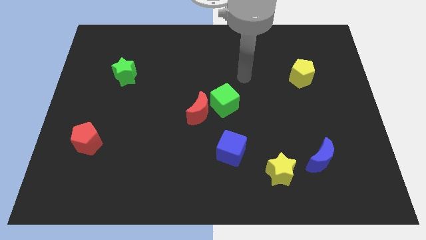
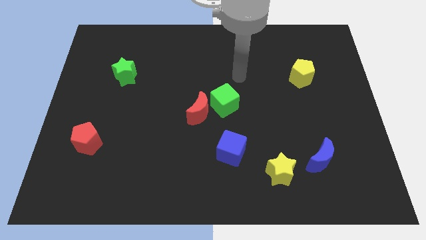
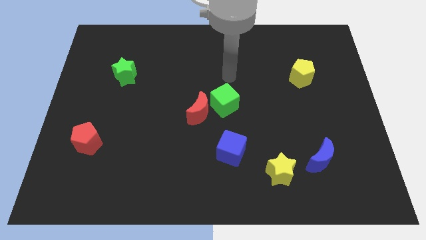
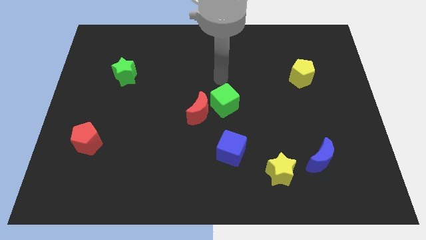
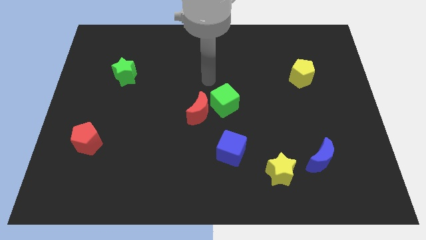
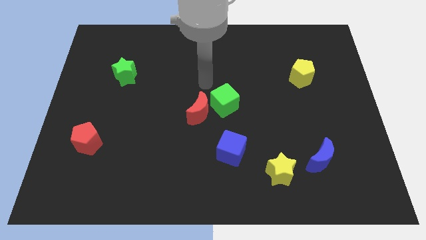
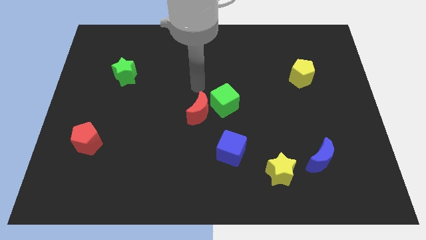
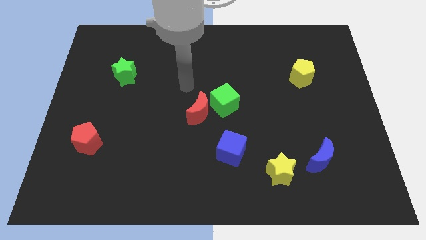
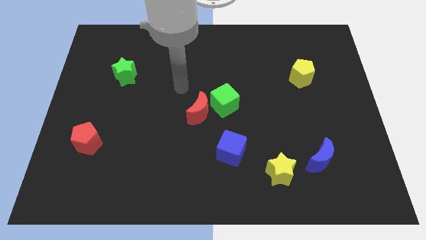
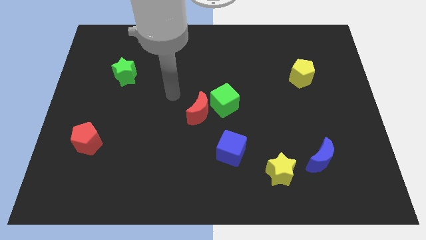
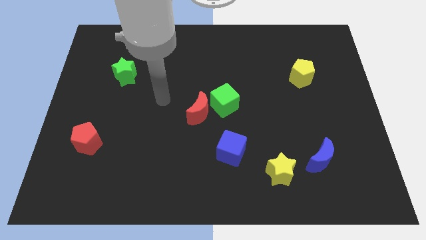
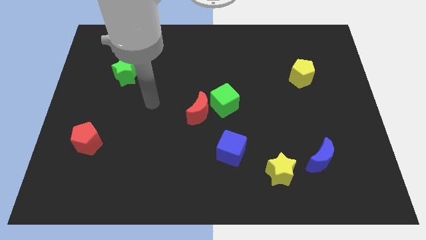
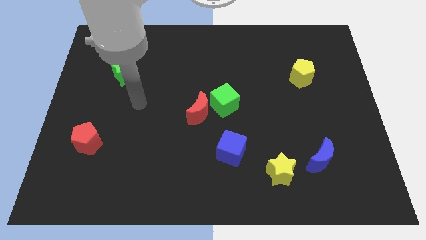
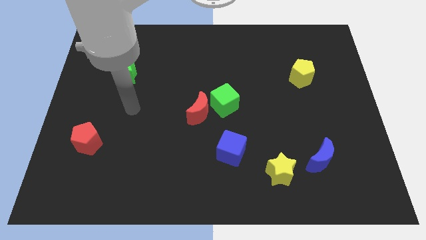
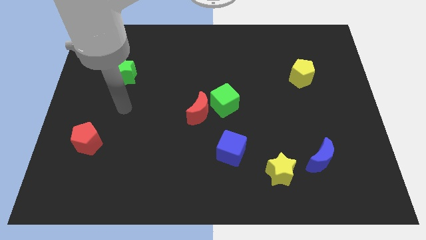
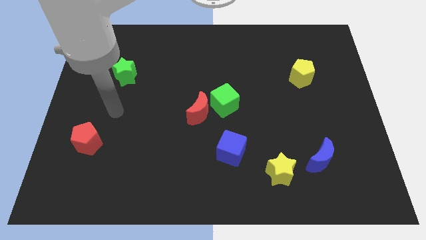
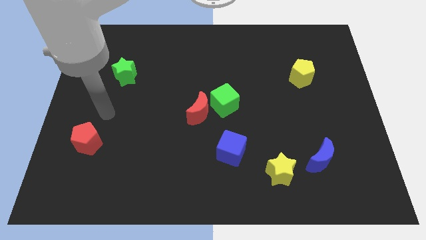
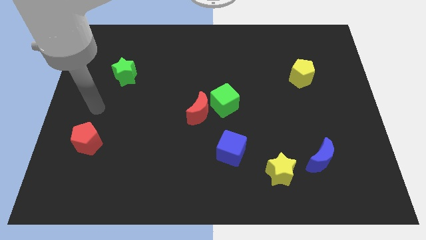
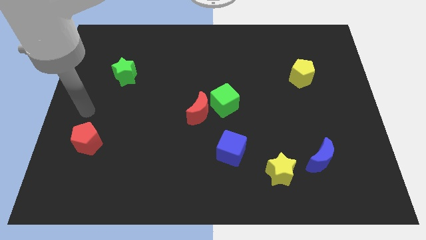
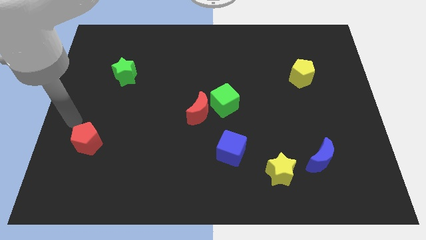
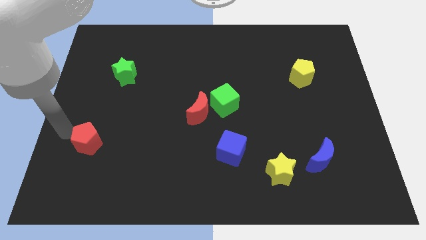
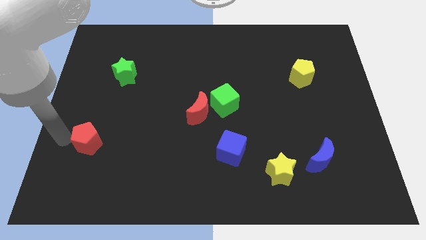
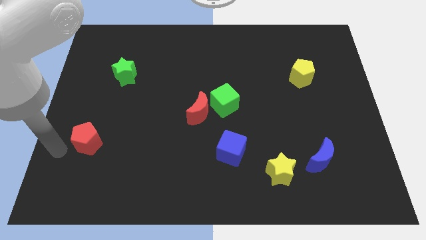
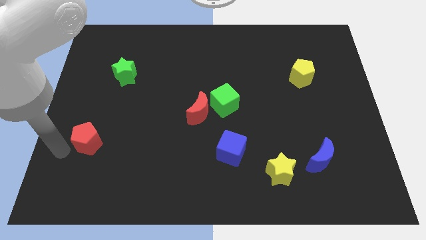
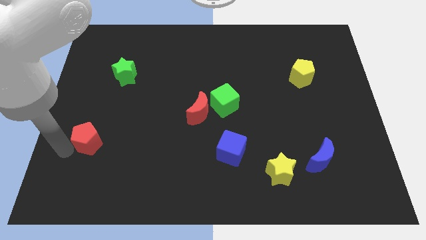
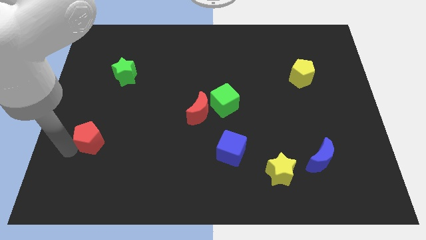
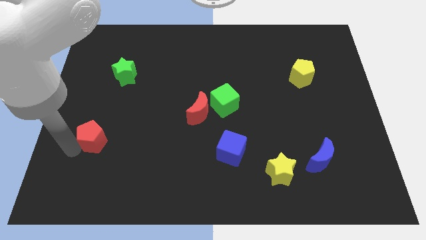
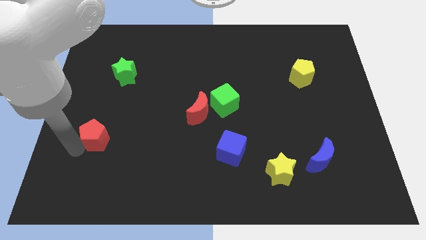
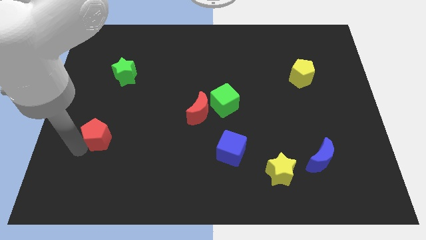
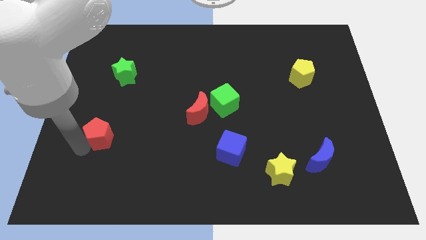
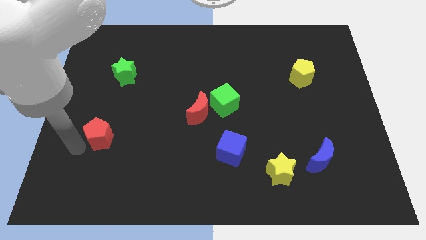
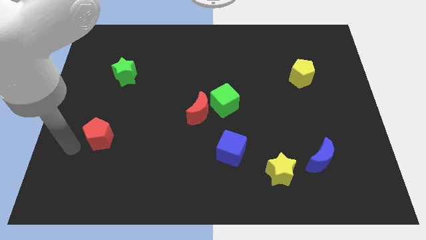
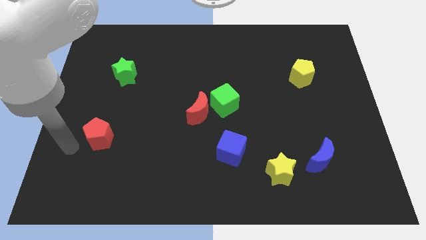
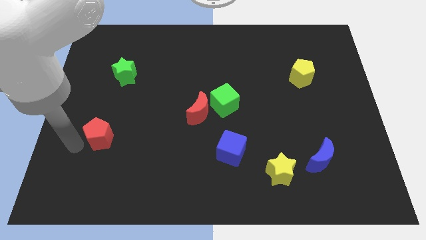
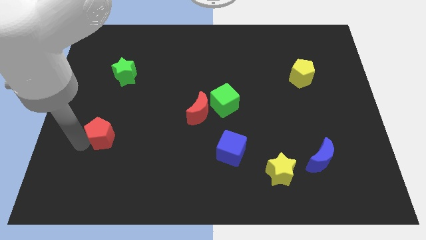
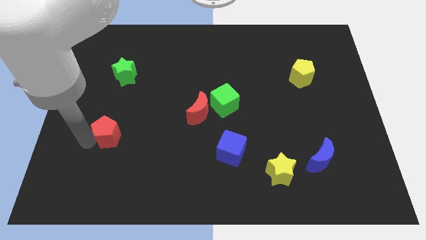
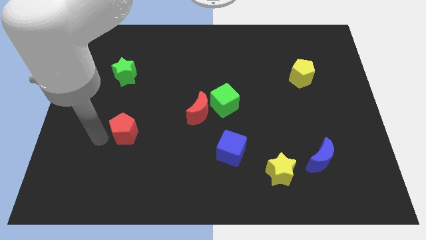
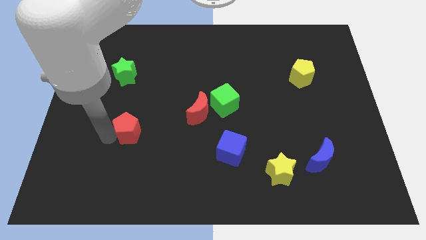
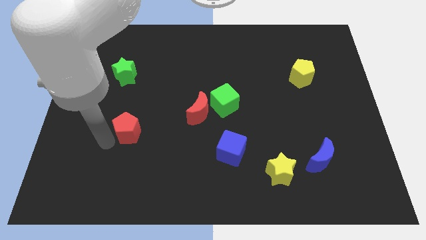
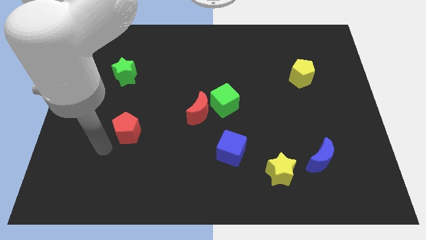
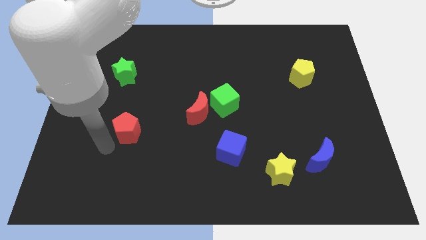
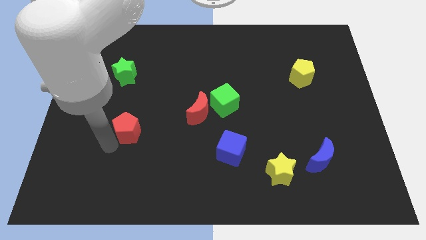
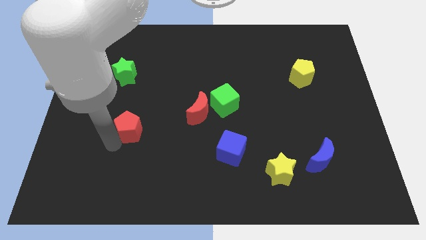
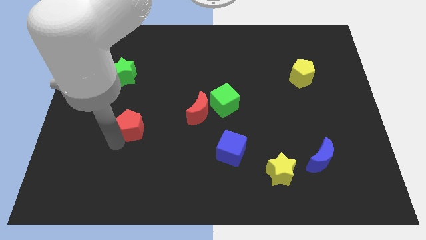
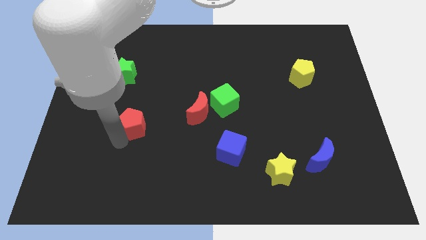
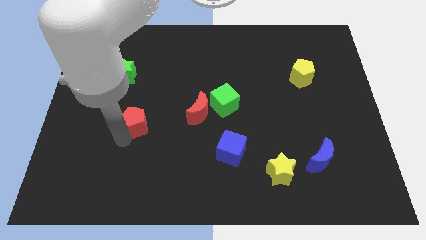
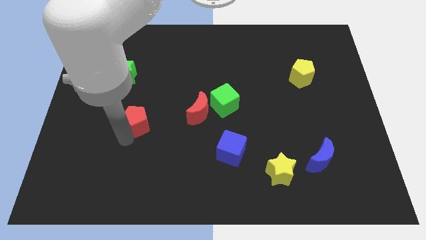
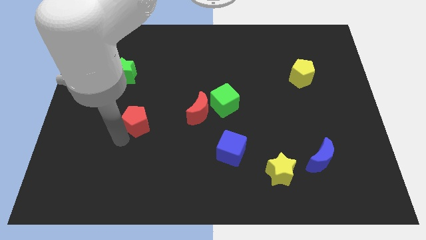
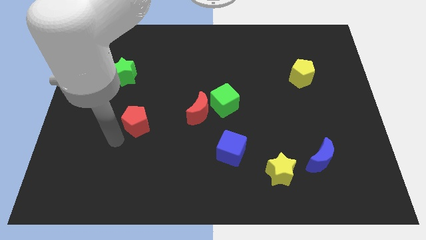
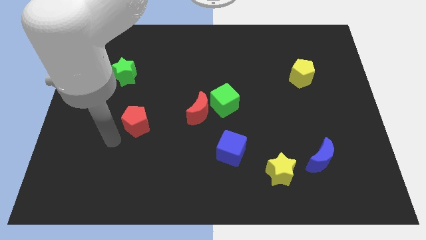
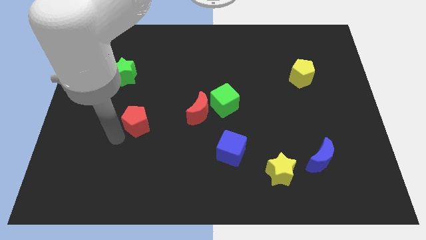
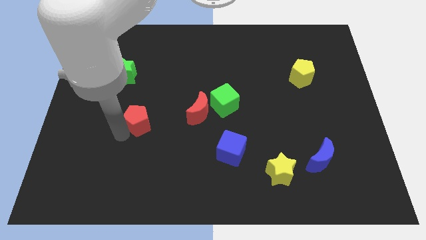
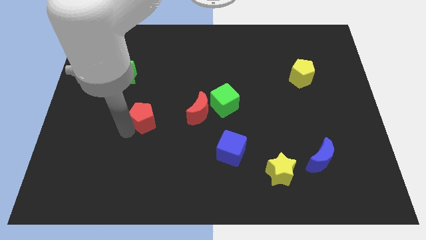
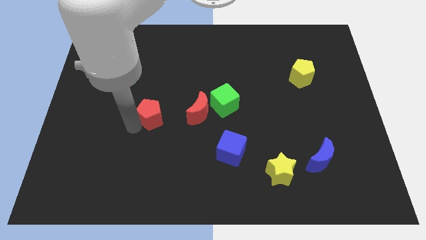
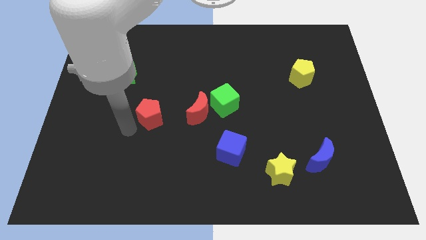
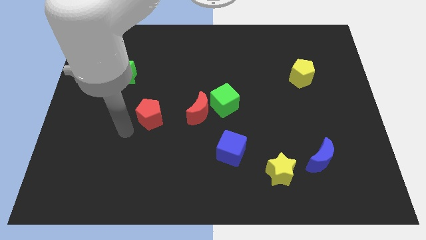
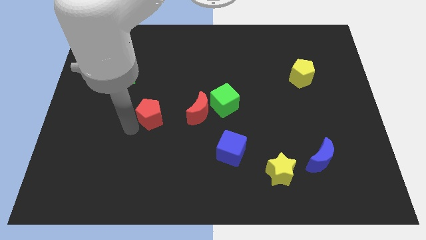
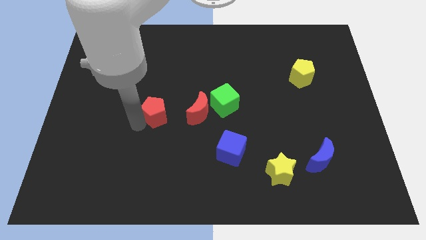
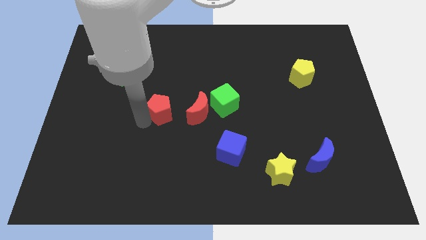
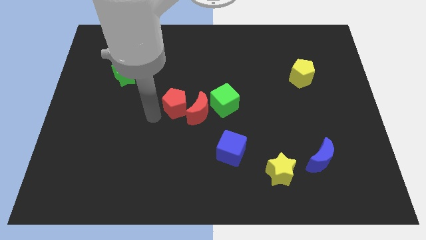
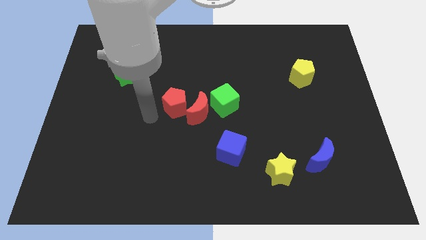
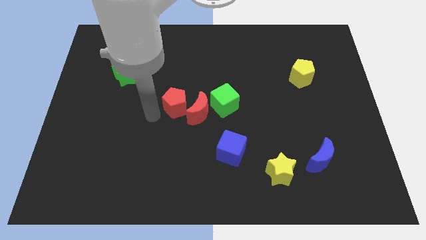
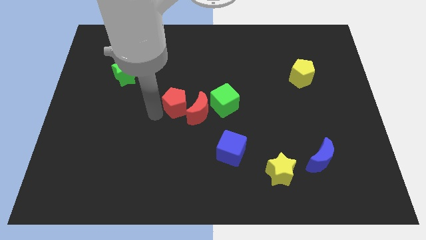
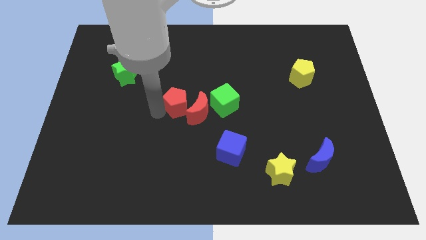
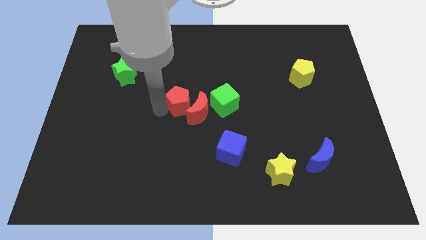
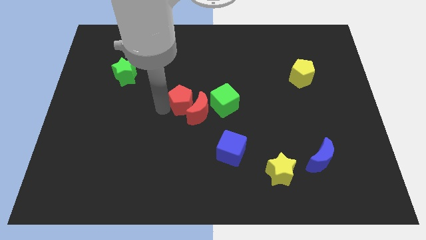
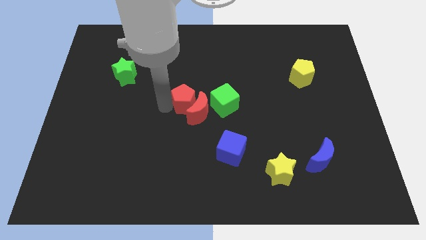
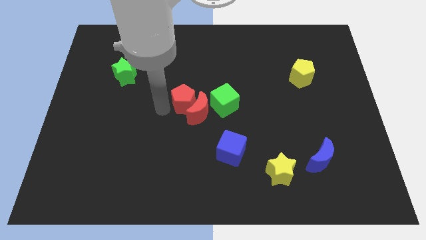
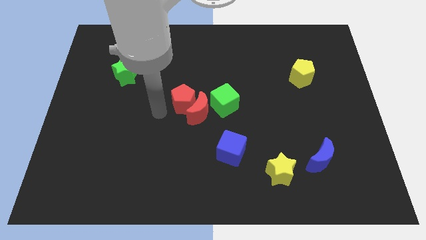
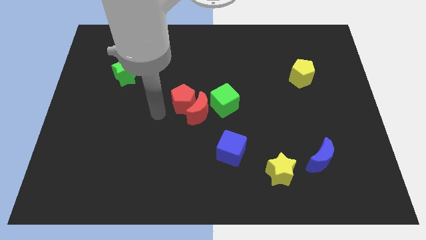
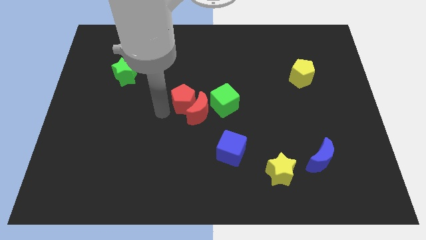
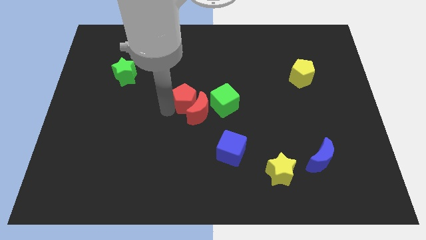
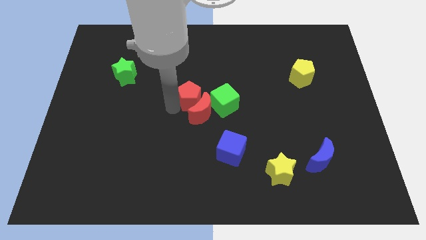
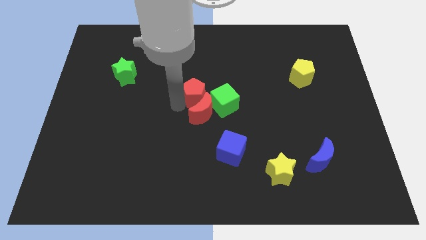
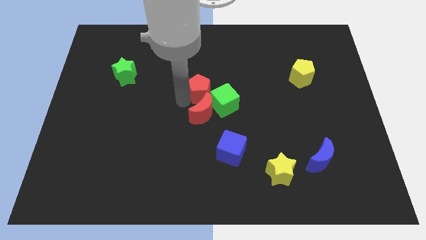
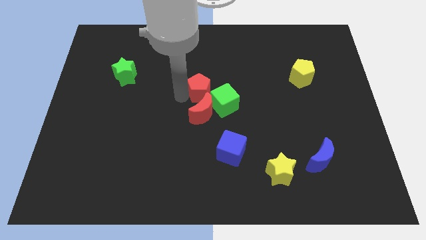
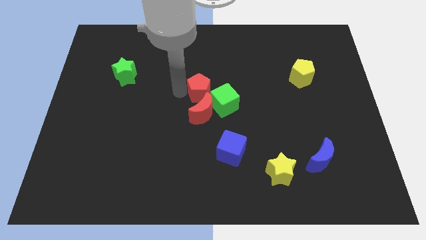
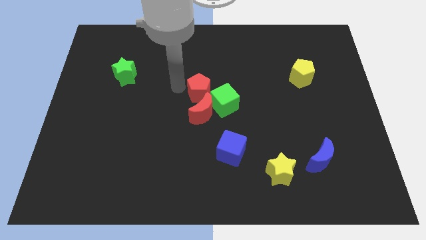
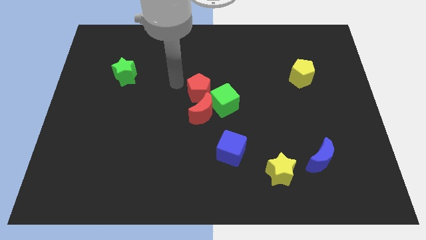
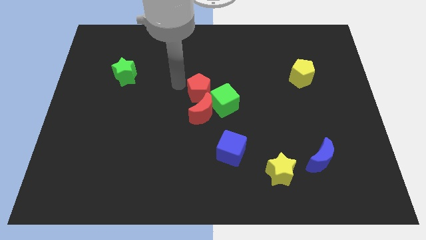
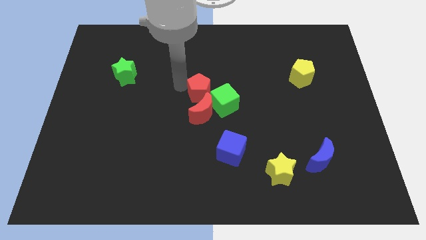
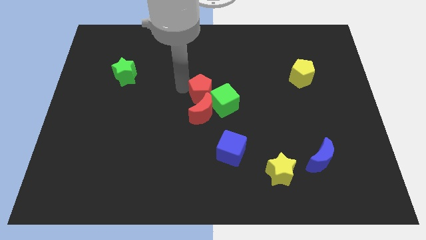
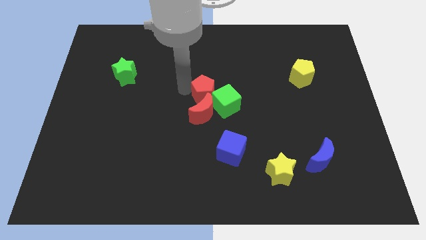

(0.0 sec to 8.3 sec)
move the red pentagon close to the green cube
